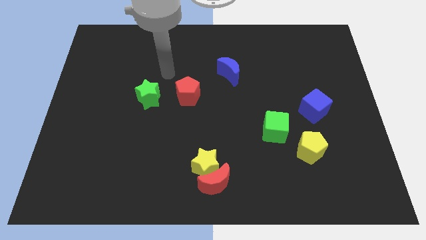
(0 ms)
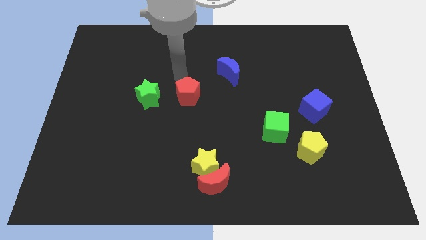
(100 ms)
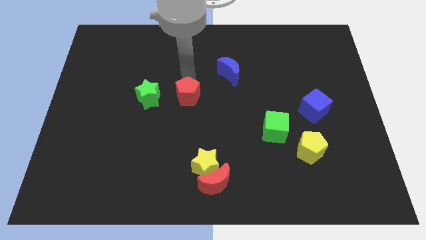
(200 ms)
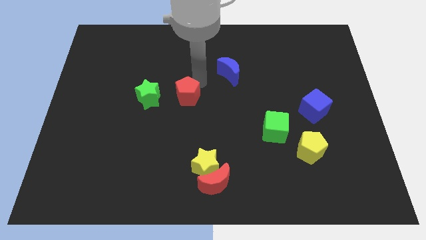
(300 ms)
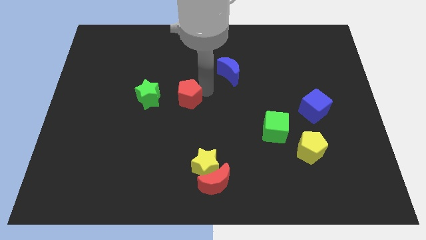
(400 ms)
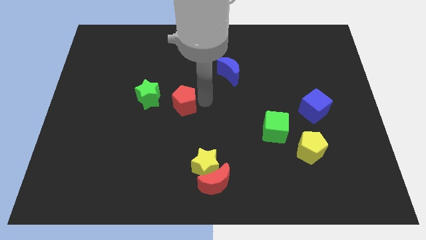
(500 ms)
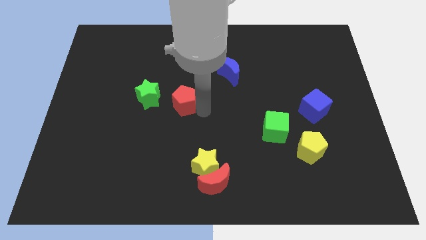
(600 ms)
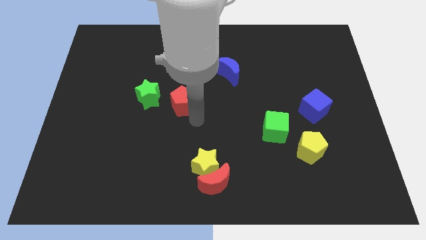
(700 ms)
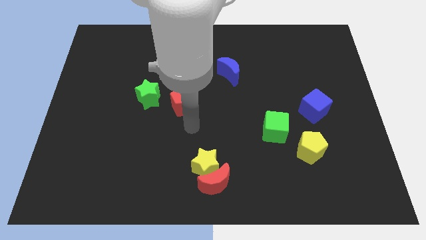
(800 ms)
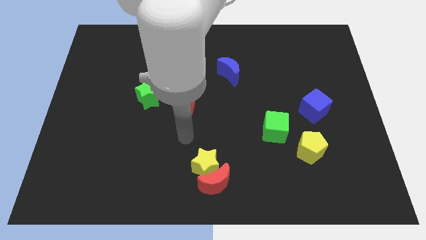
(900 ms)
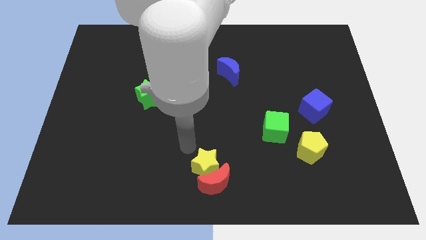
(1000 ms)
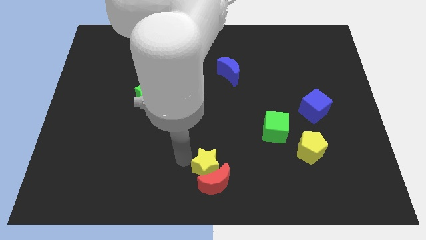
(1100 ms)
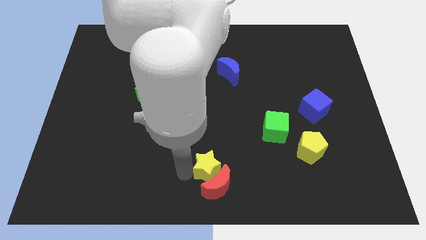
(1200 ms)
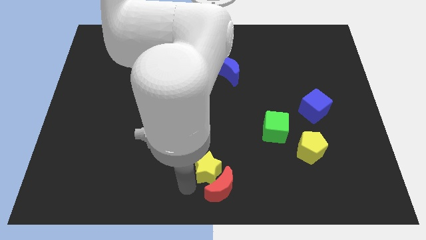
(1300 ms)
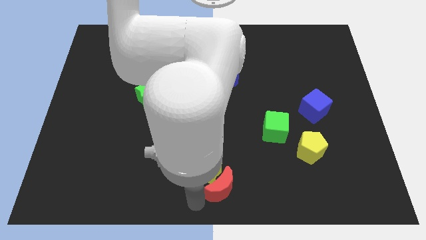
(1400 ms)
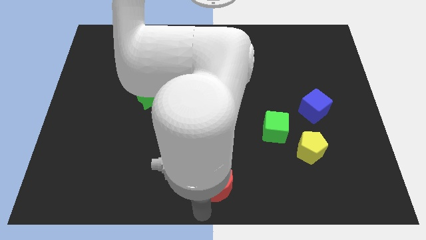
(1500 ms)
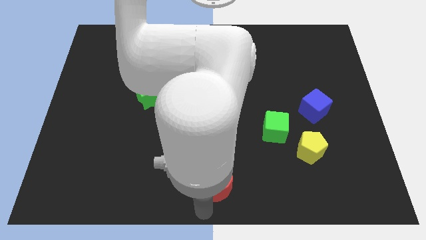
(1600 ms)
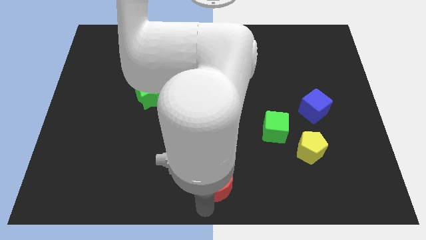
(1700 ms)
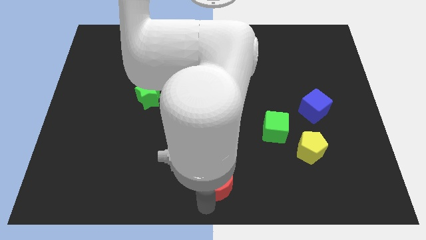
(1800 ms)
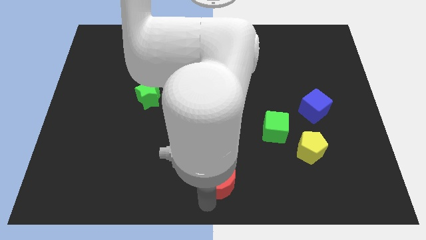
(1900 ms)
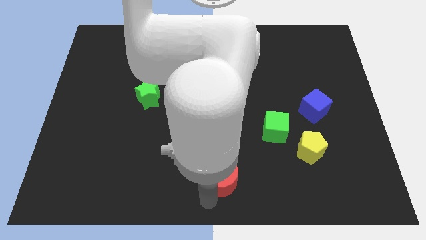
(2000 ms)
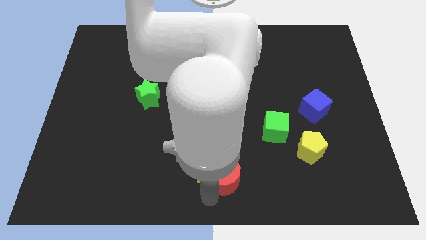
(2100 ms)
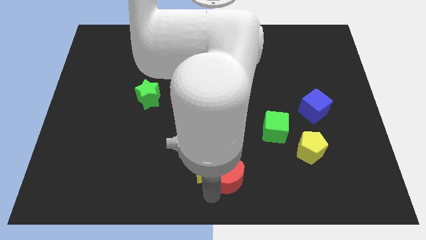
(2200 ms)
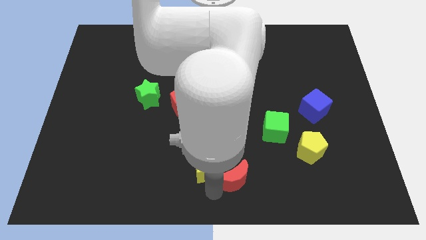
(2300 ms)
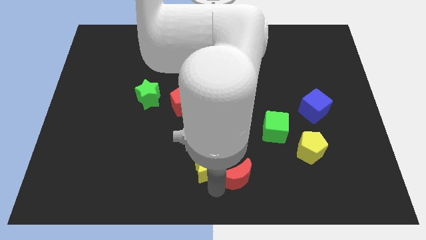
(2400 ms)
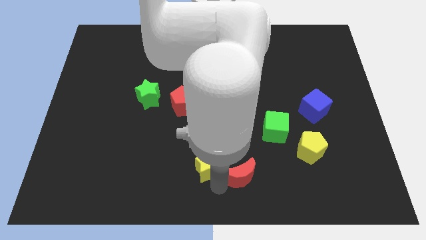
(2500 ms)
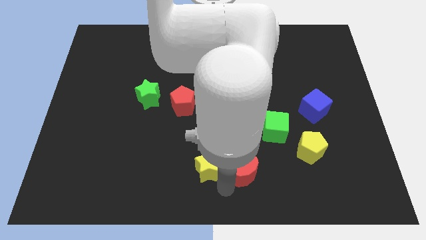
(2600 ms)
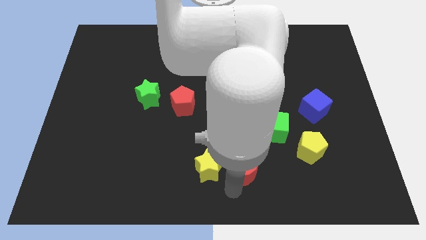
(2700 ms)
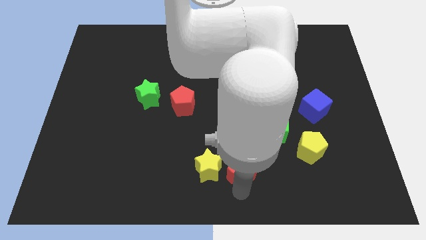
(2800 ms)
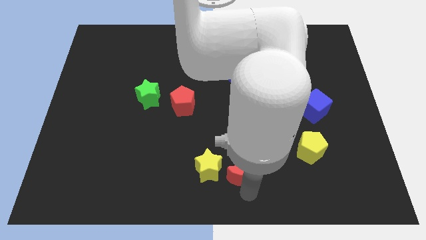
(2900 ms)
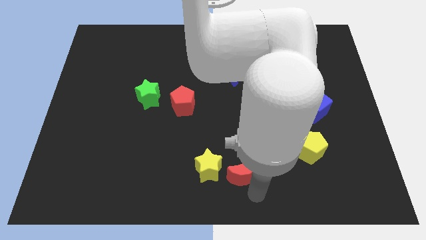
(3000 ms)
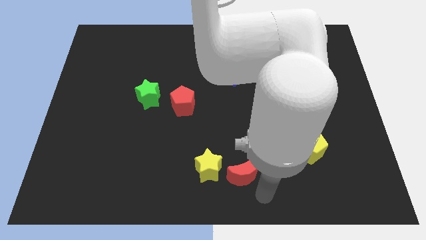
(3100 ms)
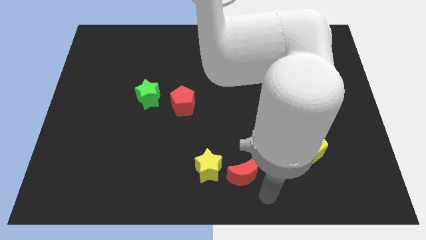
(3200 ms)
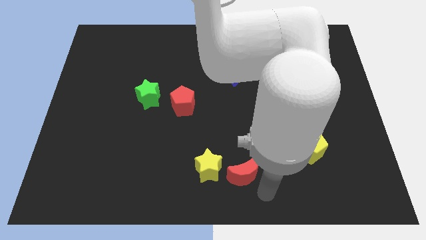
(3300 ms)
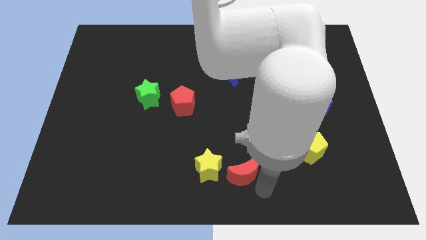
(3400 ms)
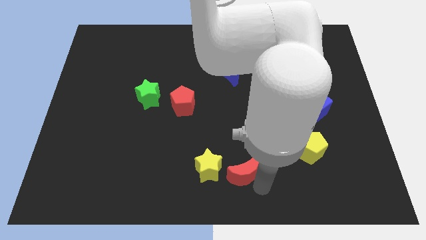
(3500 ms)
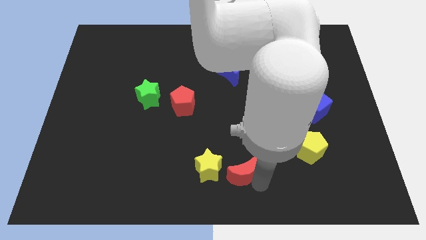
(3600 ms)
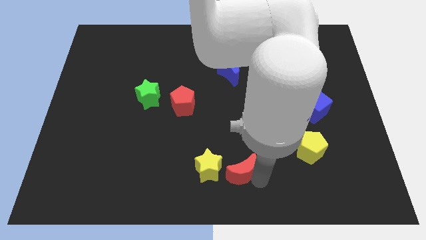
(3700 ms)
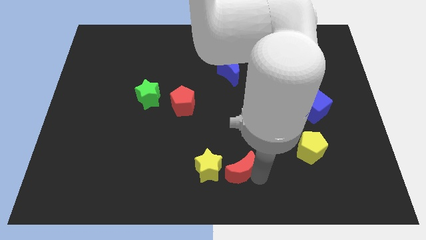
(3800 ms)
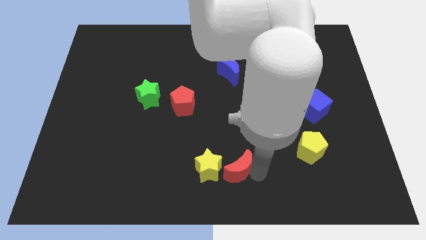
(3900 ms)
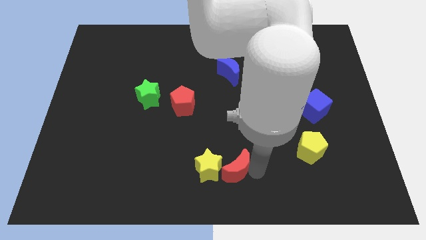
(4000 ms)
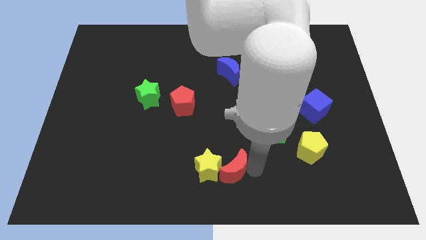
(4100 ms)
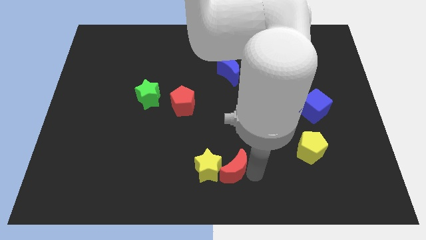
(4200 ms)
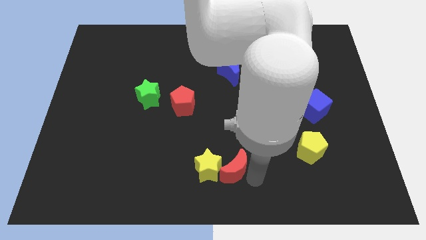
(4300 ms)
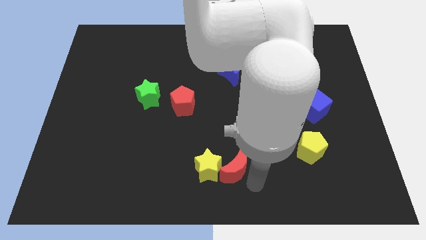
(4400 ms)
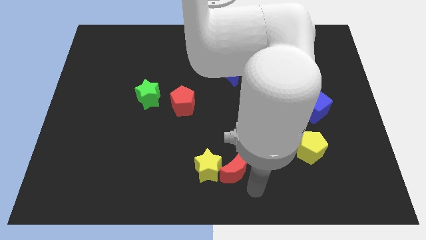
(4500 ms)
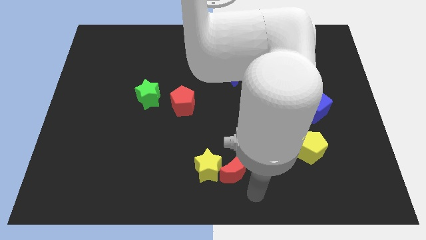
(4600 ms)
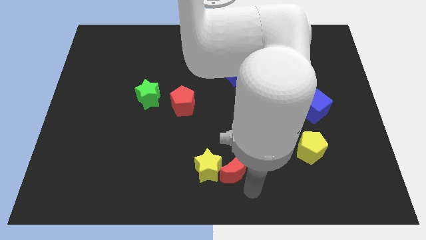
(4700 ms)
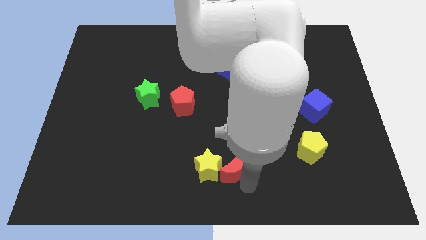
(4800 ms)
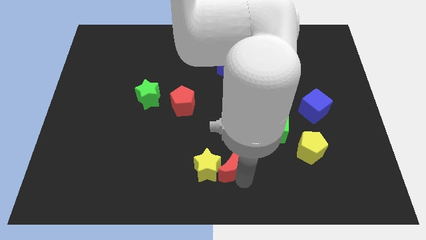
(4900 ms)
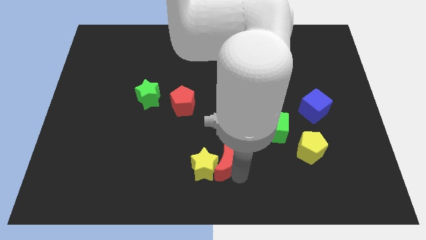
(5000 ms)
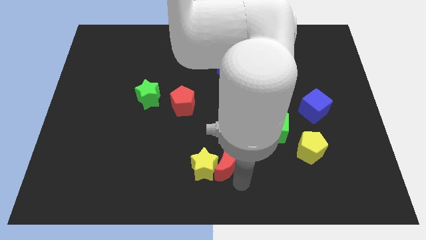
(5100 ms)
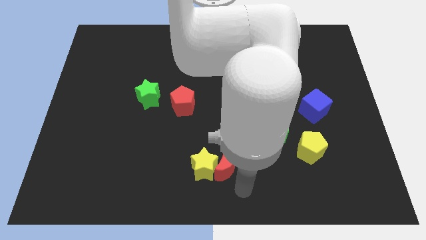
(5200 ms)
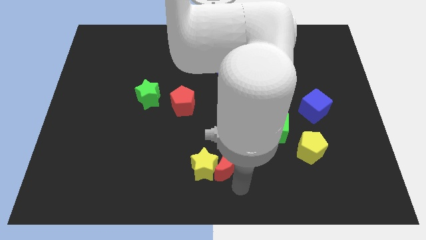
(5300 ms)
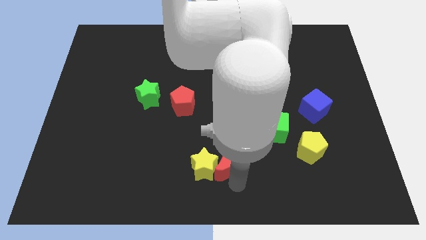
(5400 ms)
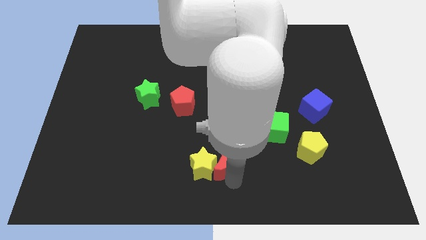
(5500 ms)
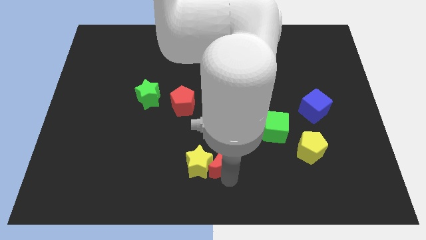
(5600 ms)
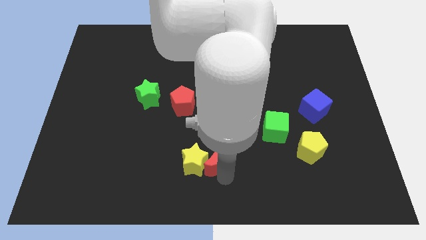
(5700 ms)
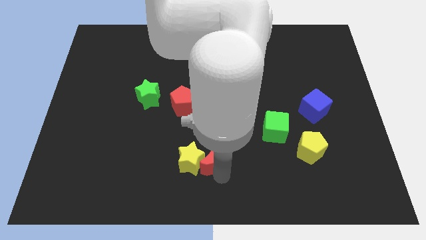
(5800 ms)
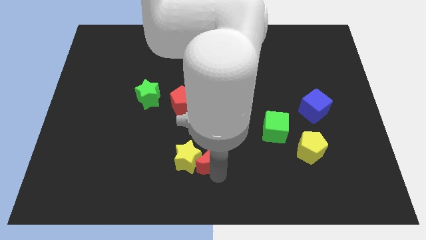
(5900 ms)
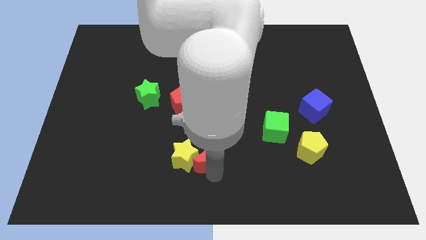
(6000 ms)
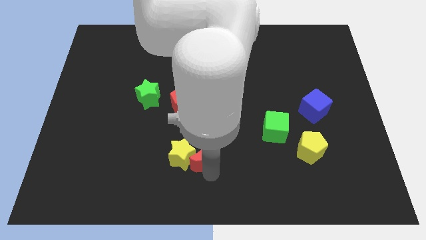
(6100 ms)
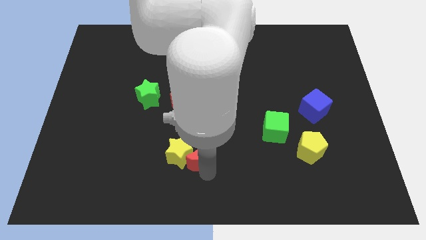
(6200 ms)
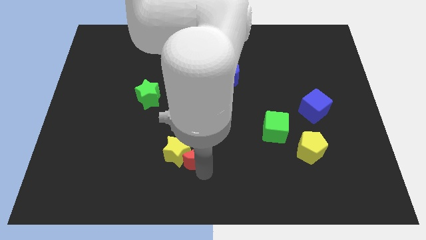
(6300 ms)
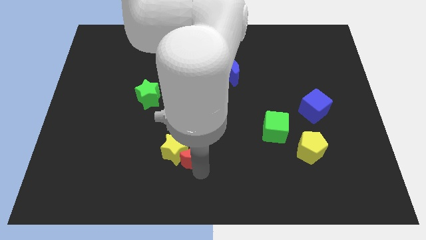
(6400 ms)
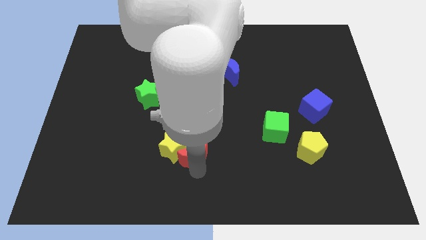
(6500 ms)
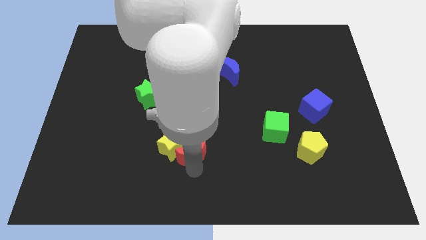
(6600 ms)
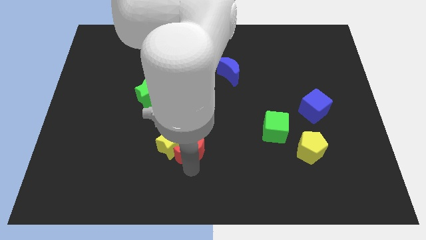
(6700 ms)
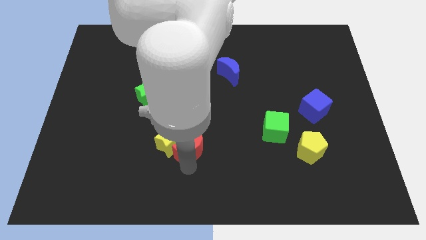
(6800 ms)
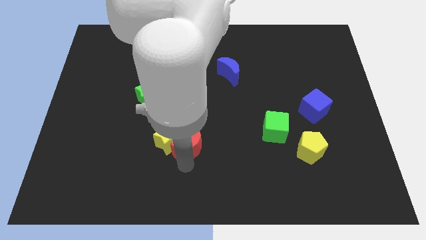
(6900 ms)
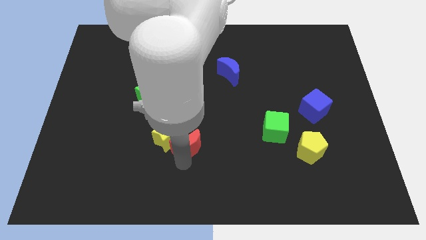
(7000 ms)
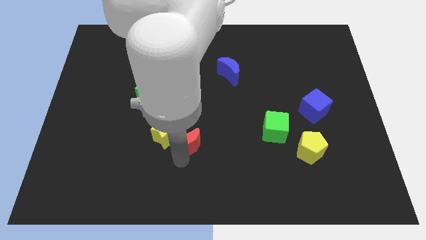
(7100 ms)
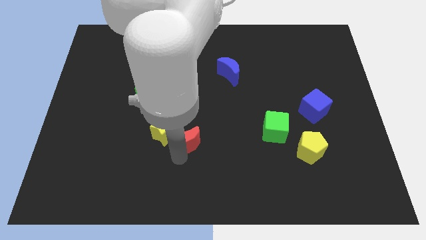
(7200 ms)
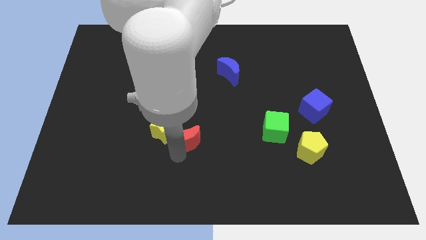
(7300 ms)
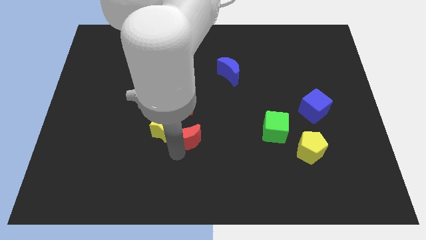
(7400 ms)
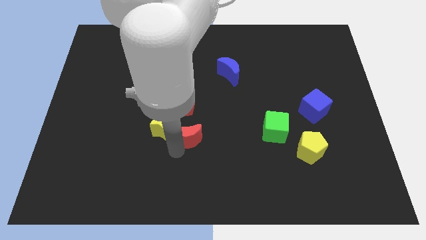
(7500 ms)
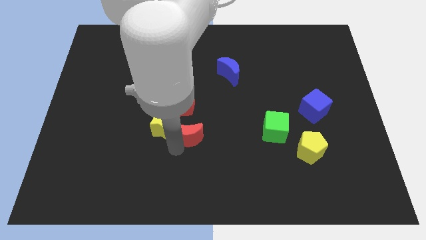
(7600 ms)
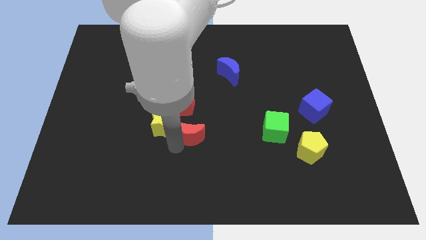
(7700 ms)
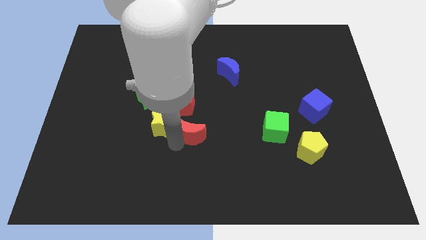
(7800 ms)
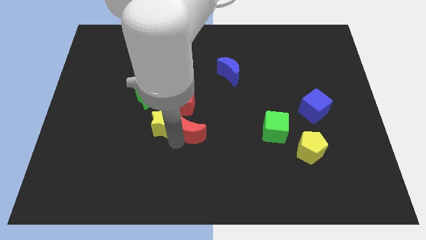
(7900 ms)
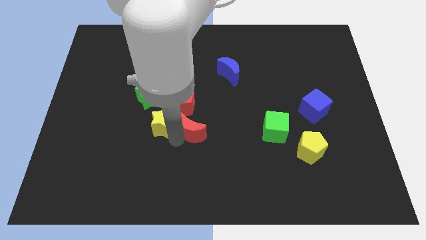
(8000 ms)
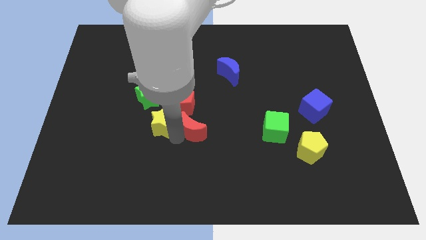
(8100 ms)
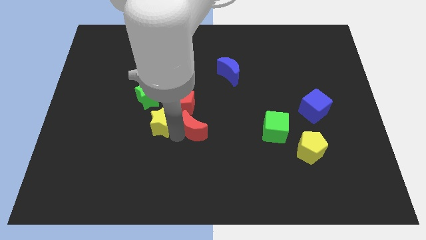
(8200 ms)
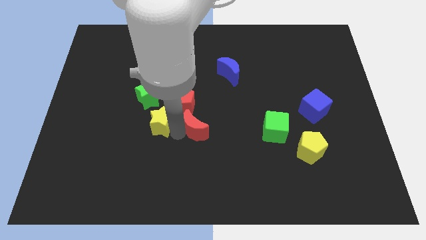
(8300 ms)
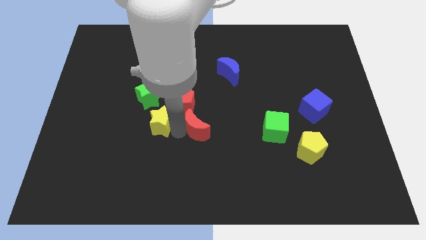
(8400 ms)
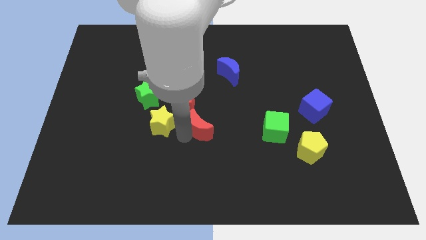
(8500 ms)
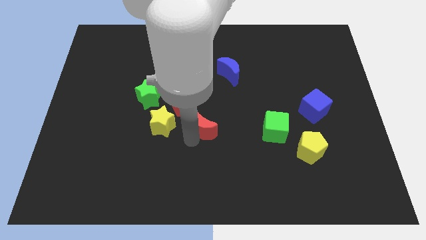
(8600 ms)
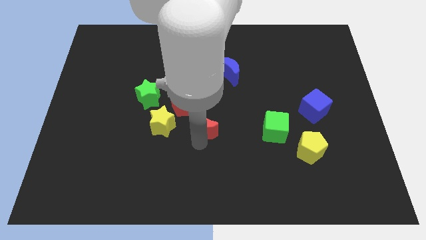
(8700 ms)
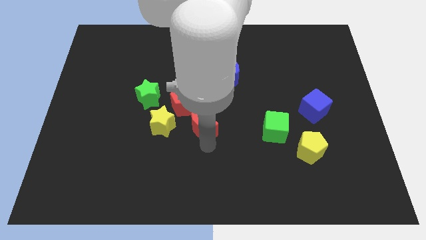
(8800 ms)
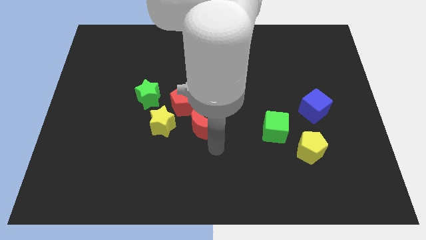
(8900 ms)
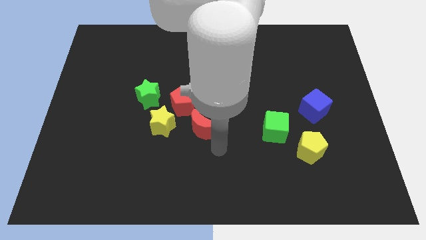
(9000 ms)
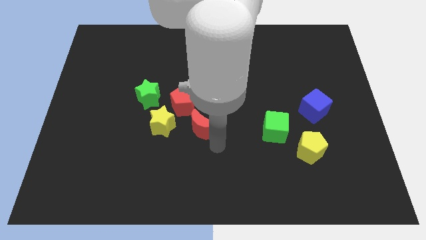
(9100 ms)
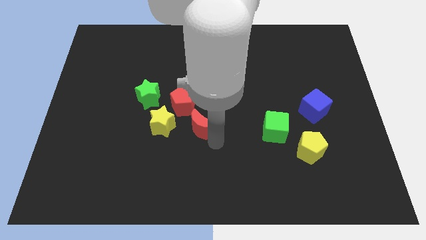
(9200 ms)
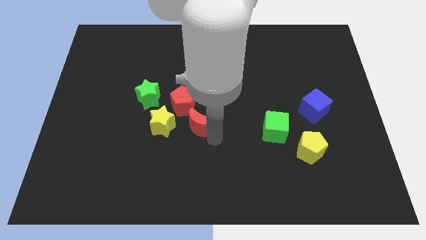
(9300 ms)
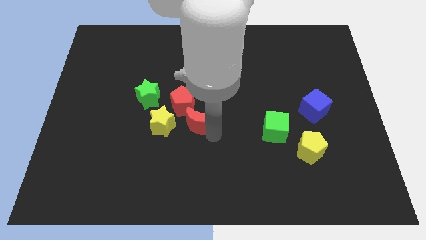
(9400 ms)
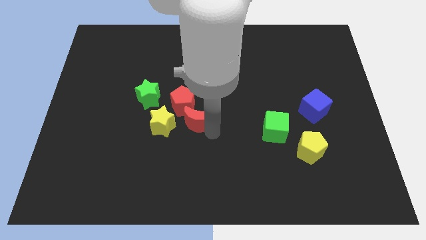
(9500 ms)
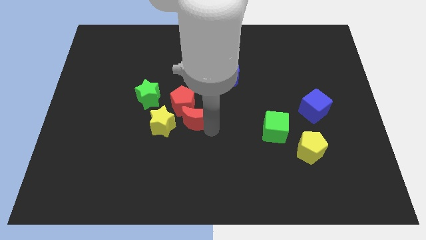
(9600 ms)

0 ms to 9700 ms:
push the red moon to the red pentagon
